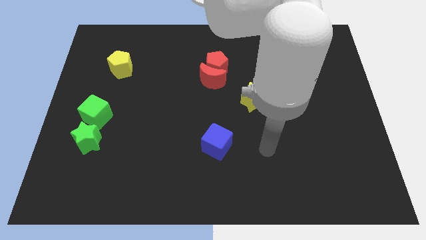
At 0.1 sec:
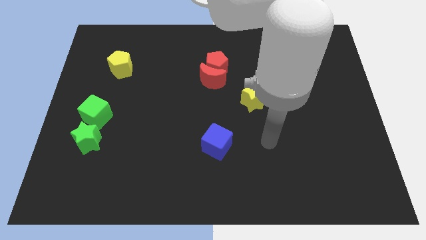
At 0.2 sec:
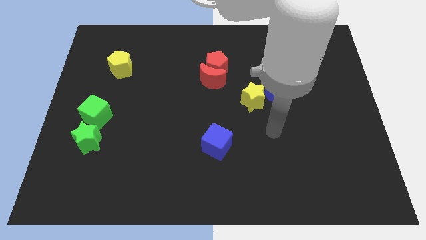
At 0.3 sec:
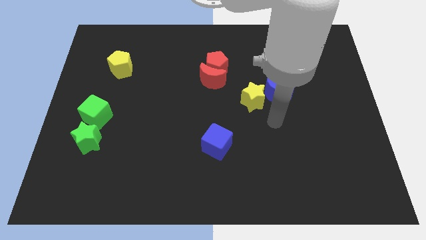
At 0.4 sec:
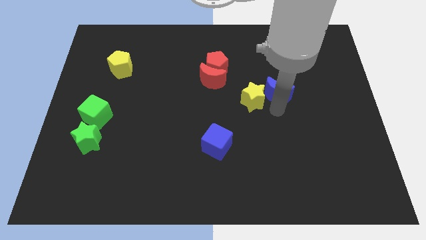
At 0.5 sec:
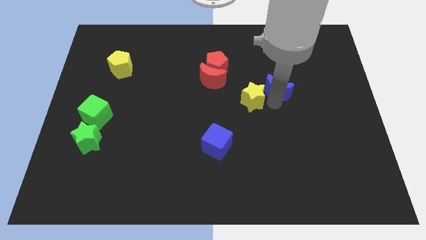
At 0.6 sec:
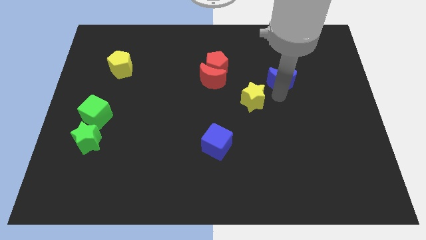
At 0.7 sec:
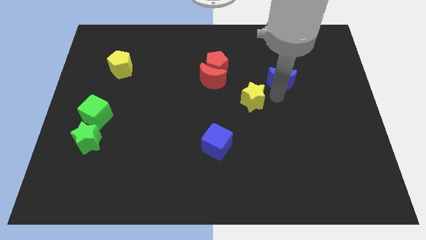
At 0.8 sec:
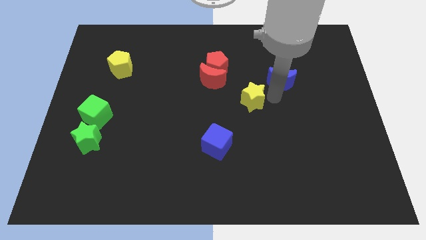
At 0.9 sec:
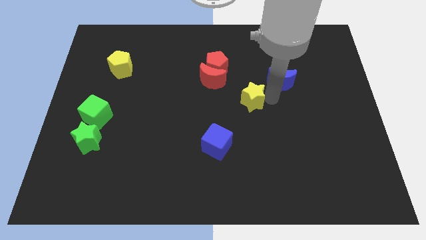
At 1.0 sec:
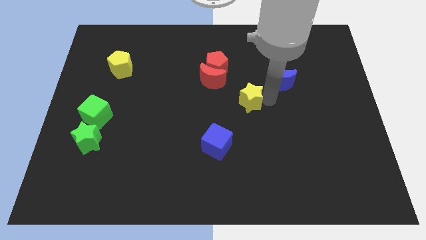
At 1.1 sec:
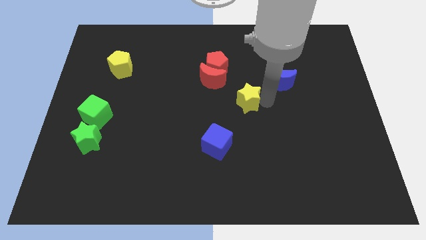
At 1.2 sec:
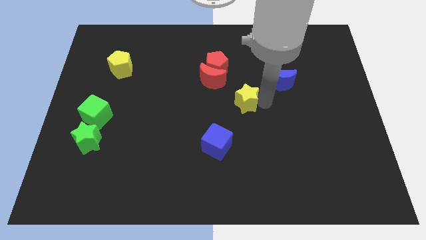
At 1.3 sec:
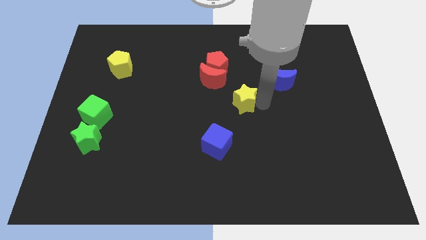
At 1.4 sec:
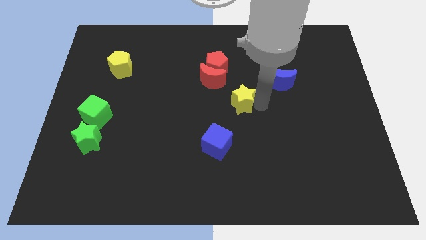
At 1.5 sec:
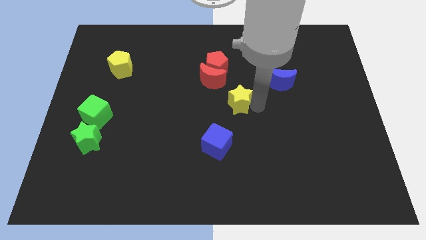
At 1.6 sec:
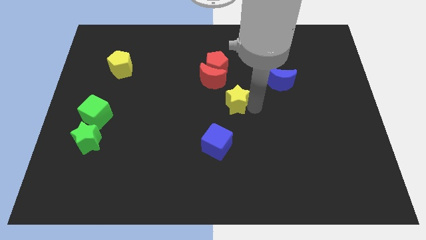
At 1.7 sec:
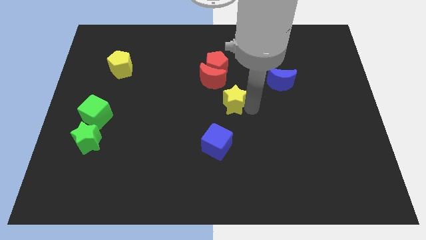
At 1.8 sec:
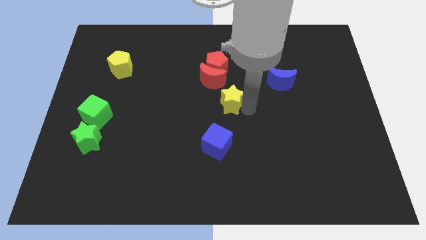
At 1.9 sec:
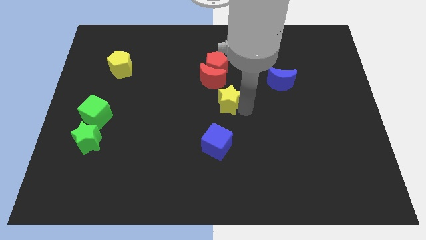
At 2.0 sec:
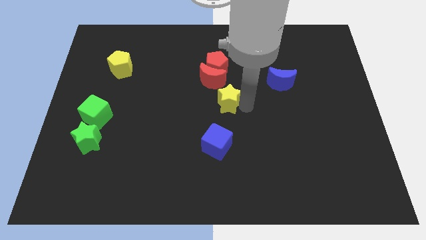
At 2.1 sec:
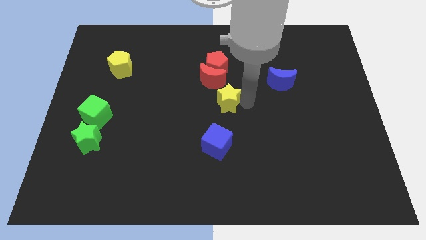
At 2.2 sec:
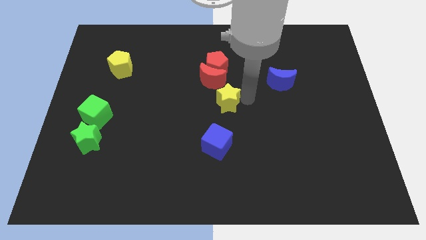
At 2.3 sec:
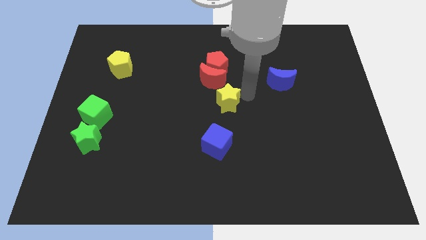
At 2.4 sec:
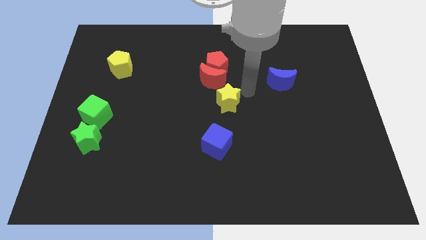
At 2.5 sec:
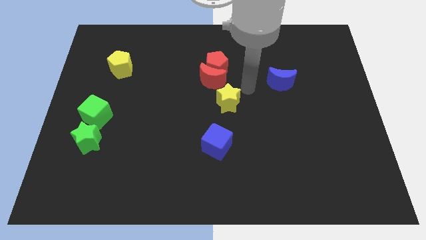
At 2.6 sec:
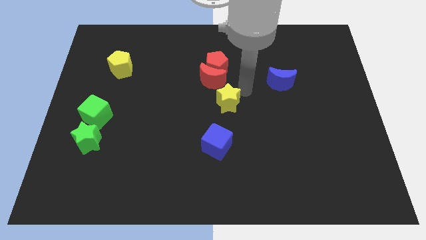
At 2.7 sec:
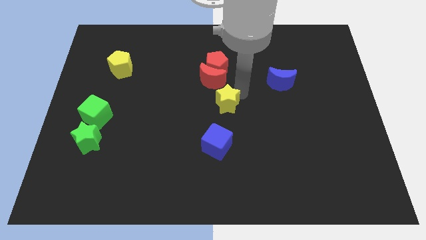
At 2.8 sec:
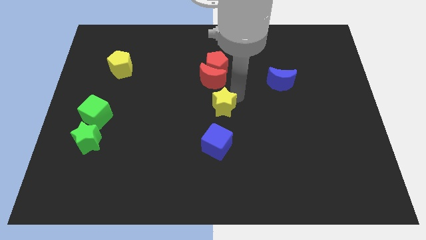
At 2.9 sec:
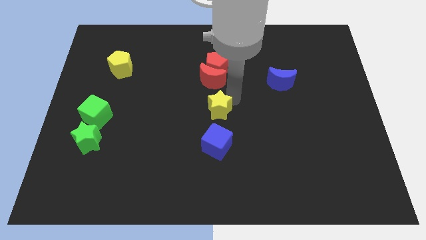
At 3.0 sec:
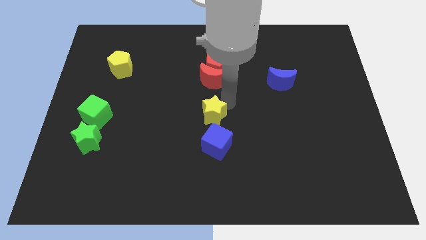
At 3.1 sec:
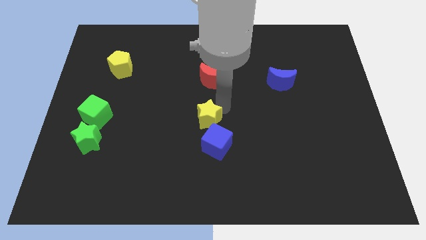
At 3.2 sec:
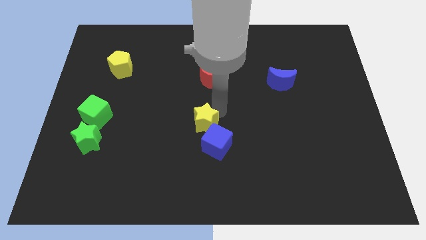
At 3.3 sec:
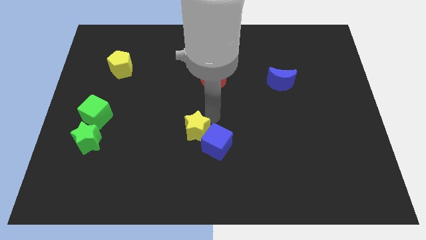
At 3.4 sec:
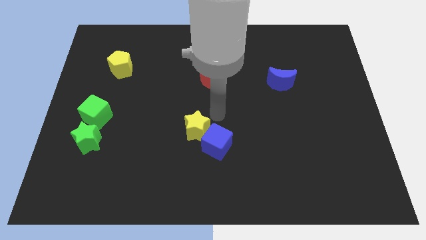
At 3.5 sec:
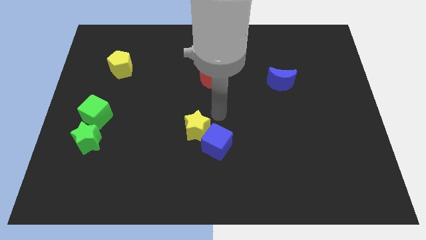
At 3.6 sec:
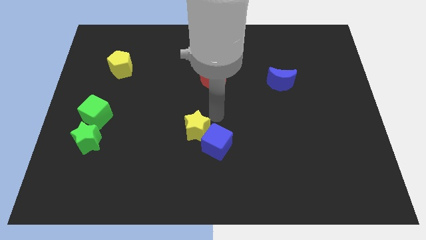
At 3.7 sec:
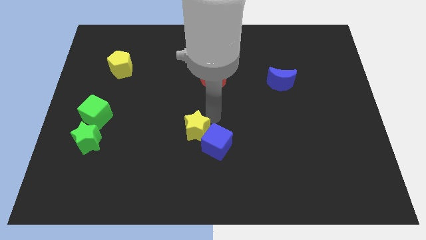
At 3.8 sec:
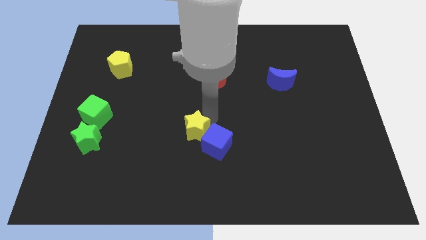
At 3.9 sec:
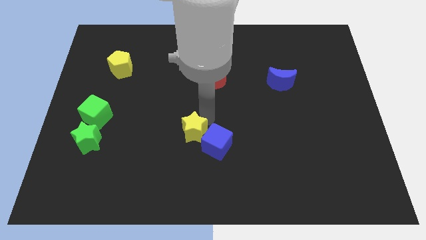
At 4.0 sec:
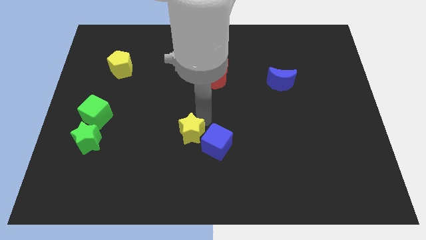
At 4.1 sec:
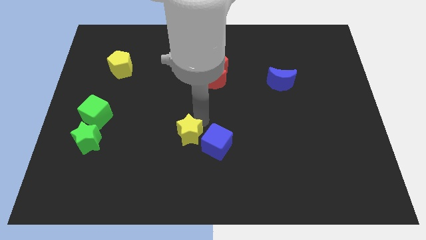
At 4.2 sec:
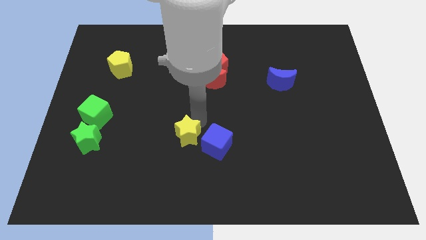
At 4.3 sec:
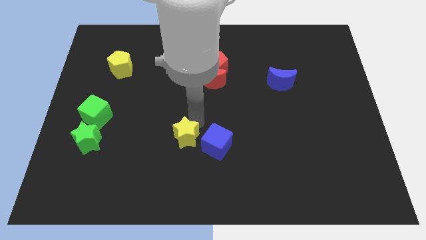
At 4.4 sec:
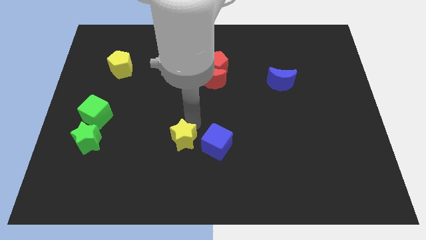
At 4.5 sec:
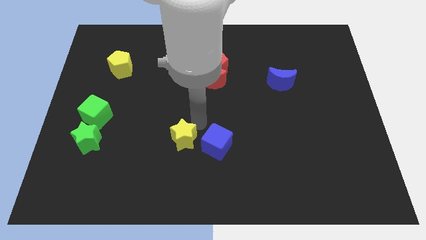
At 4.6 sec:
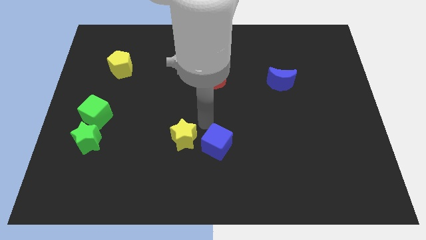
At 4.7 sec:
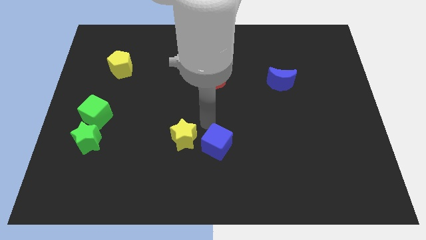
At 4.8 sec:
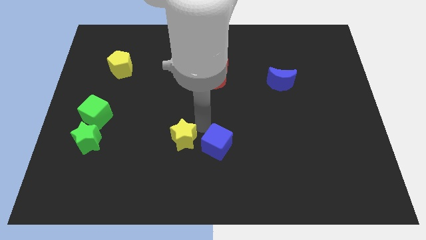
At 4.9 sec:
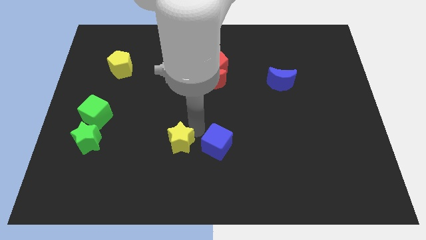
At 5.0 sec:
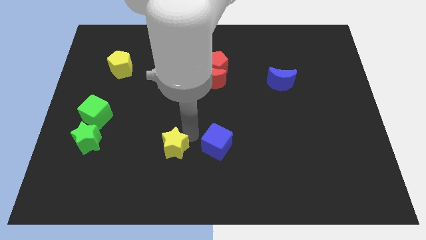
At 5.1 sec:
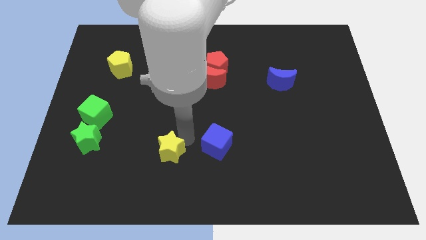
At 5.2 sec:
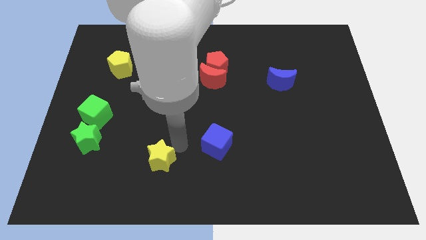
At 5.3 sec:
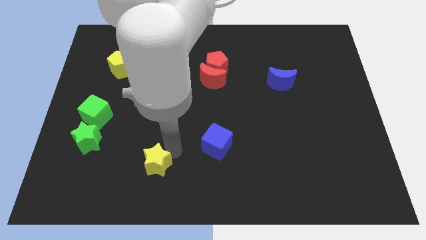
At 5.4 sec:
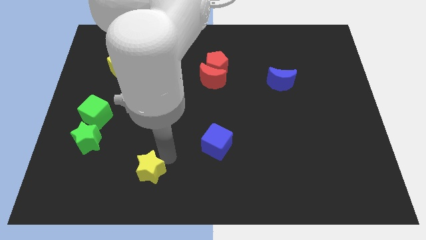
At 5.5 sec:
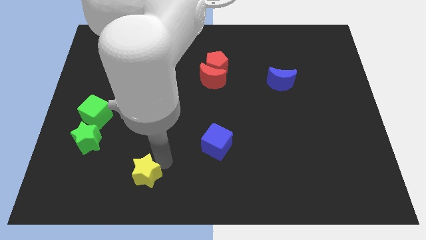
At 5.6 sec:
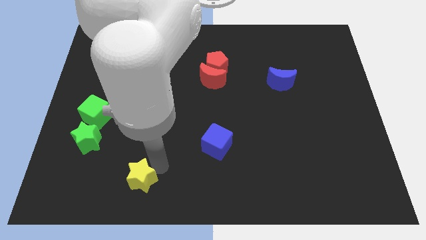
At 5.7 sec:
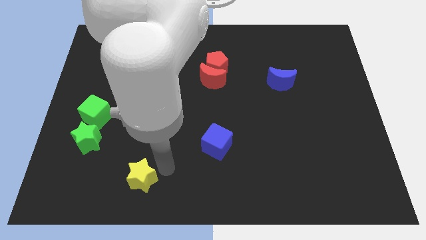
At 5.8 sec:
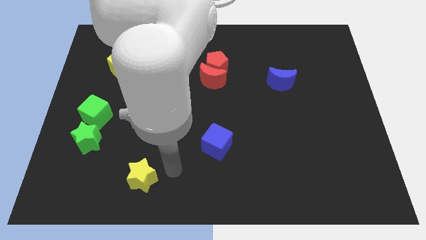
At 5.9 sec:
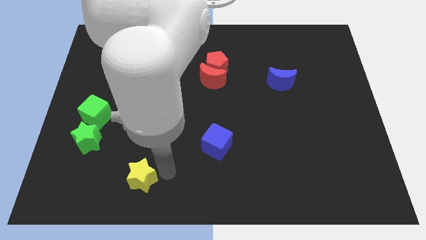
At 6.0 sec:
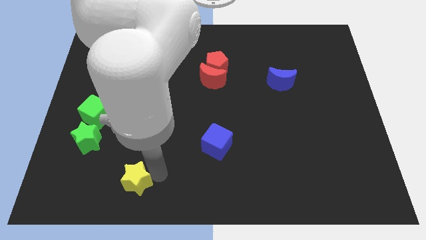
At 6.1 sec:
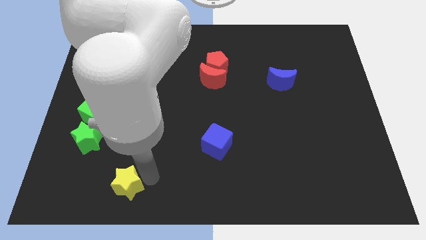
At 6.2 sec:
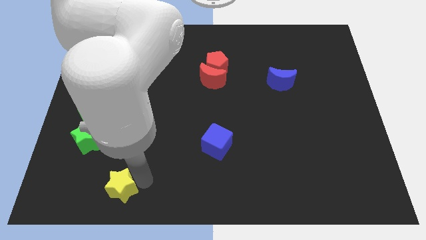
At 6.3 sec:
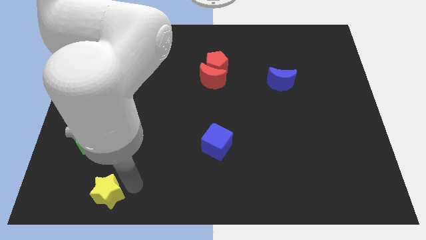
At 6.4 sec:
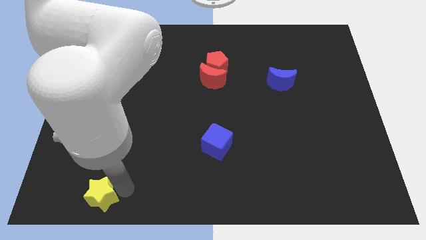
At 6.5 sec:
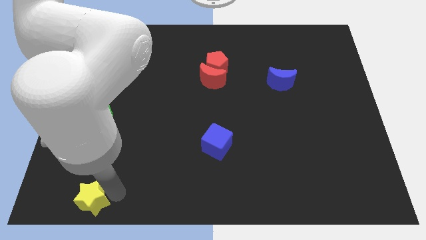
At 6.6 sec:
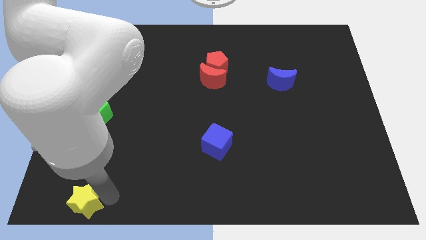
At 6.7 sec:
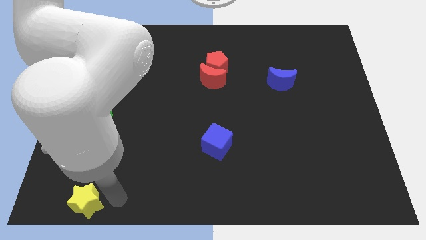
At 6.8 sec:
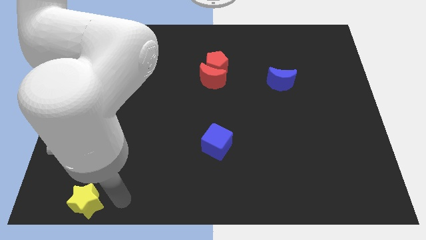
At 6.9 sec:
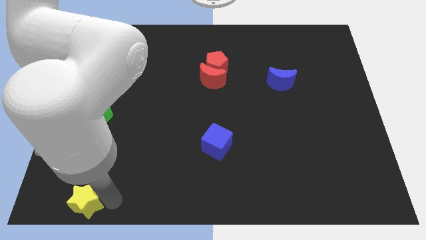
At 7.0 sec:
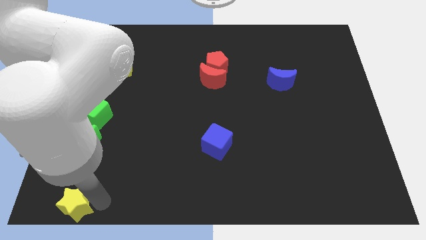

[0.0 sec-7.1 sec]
move the yellow star to the lower left corner
